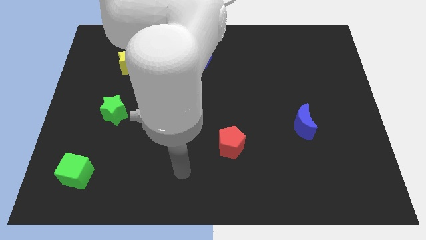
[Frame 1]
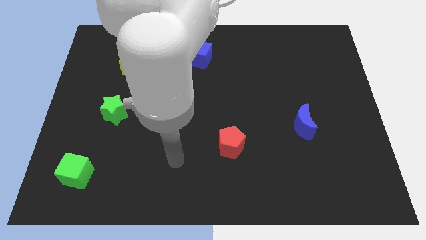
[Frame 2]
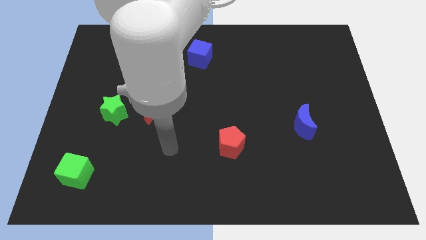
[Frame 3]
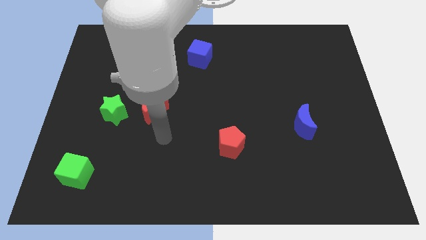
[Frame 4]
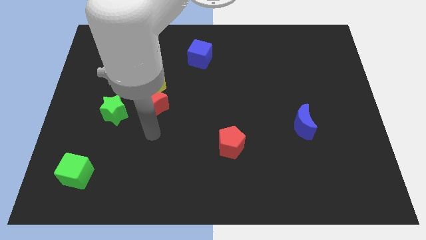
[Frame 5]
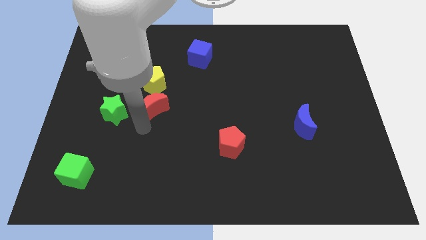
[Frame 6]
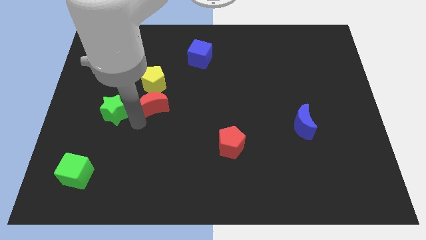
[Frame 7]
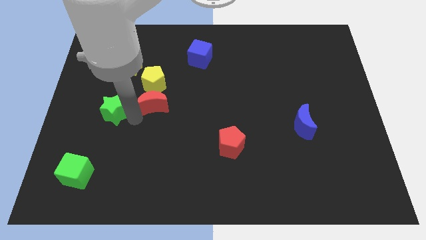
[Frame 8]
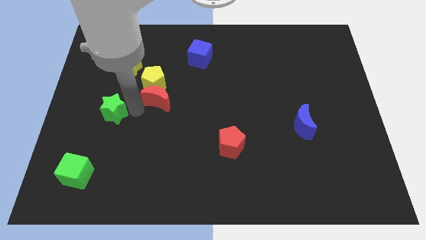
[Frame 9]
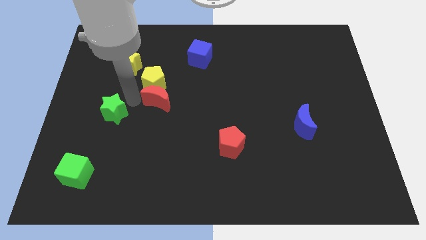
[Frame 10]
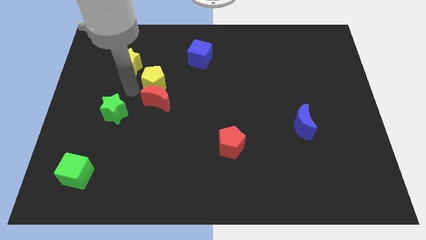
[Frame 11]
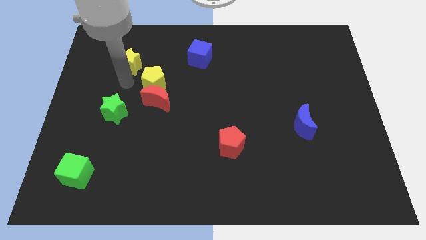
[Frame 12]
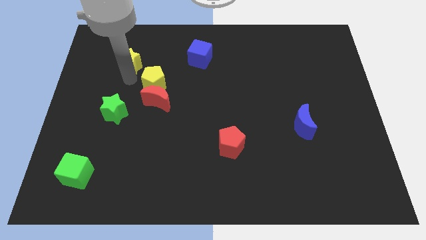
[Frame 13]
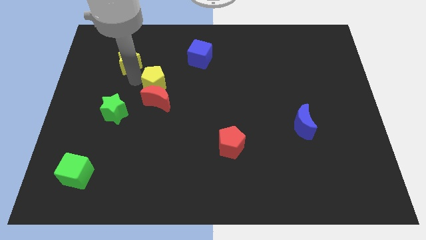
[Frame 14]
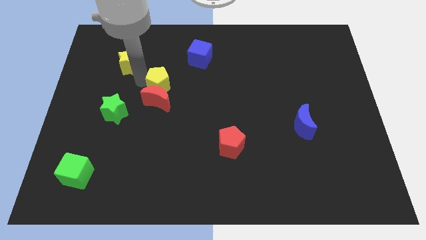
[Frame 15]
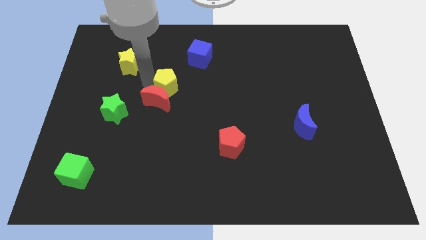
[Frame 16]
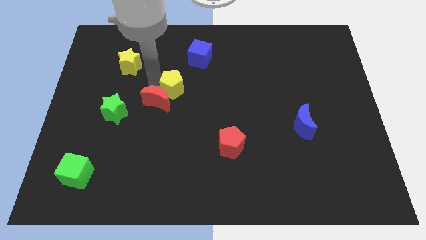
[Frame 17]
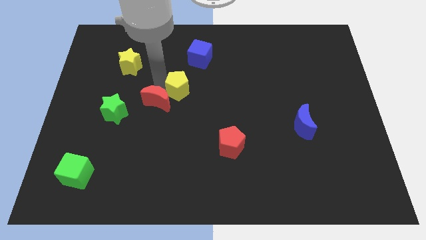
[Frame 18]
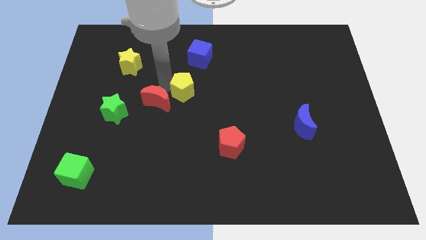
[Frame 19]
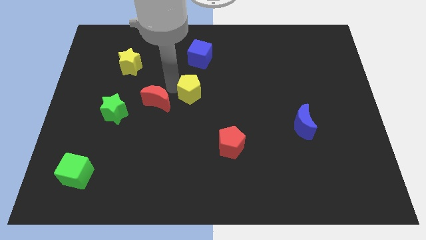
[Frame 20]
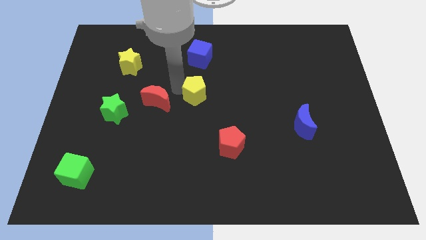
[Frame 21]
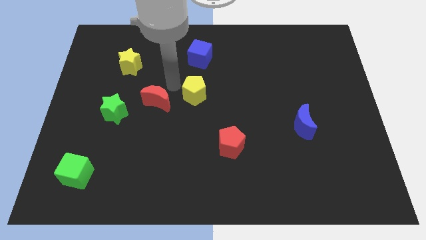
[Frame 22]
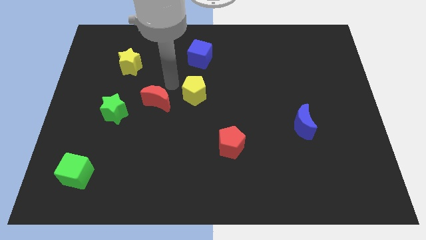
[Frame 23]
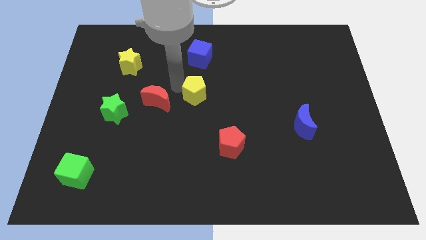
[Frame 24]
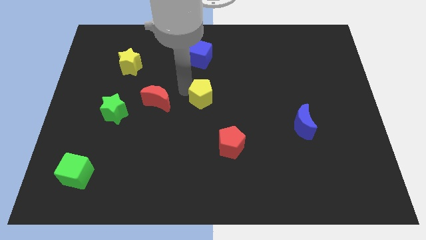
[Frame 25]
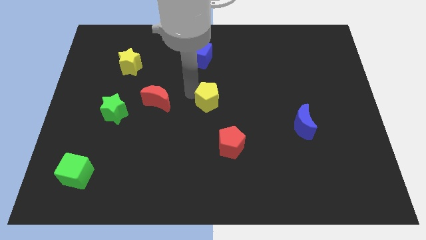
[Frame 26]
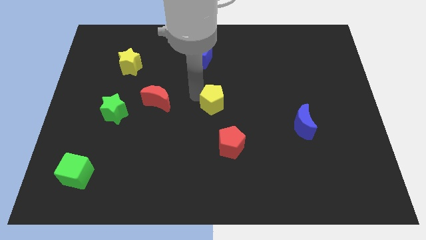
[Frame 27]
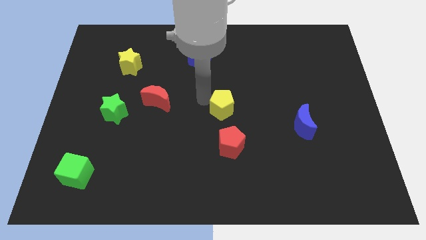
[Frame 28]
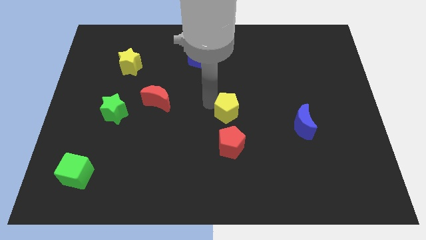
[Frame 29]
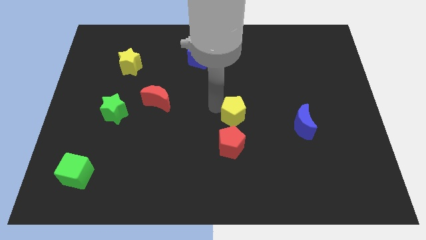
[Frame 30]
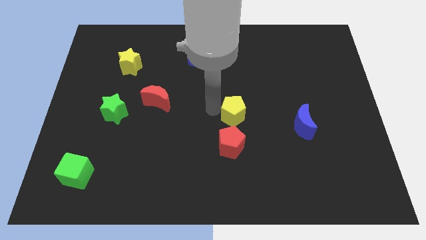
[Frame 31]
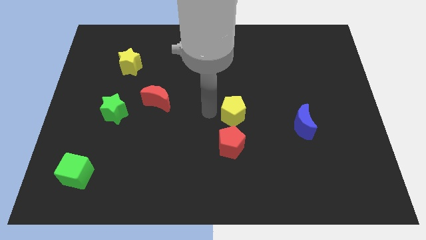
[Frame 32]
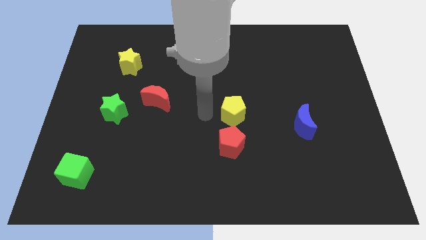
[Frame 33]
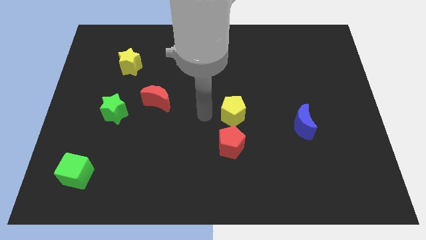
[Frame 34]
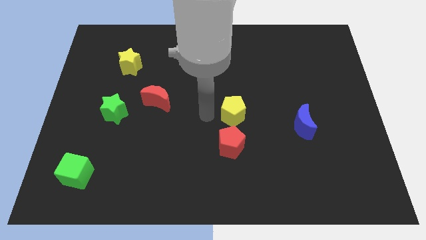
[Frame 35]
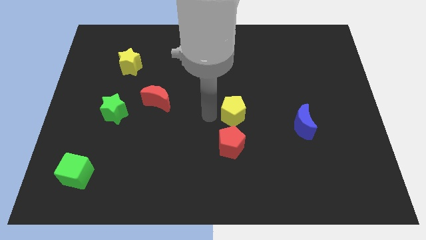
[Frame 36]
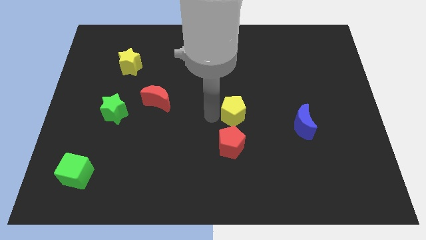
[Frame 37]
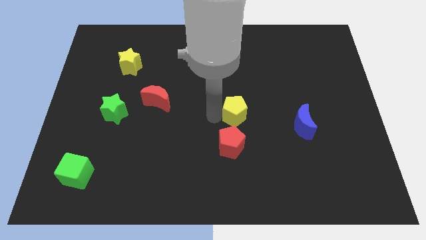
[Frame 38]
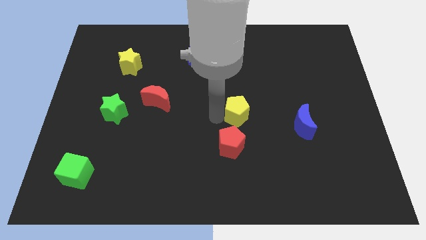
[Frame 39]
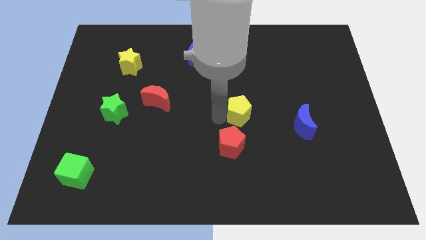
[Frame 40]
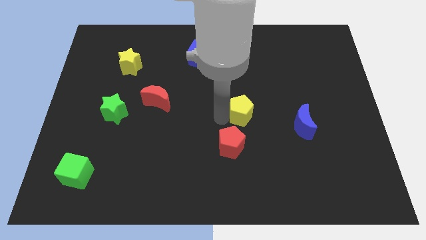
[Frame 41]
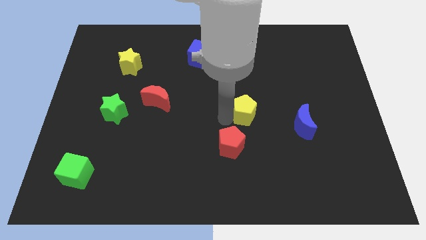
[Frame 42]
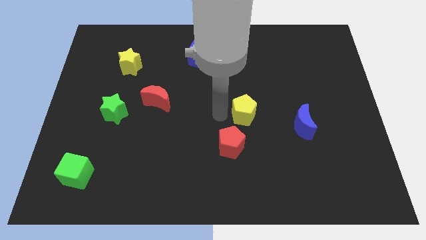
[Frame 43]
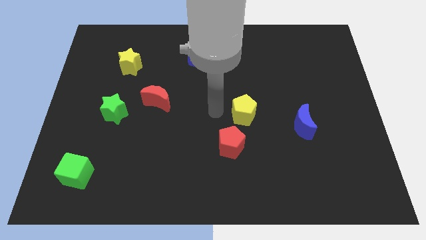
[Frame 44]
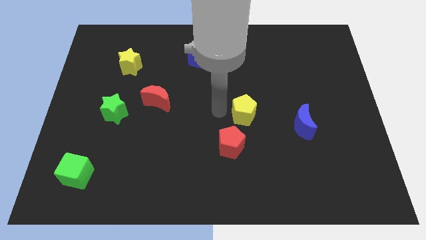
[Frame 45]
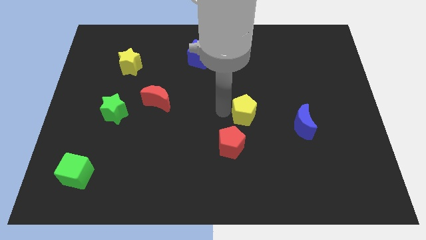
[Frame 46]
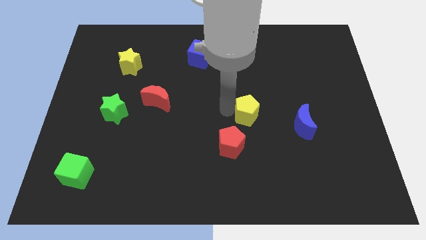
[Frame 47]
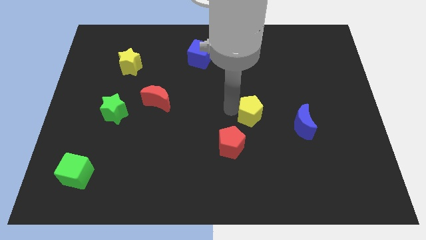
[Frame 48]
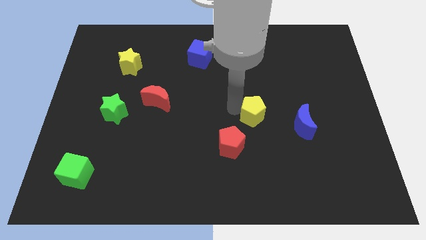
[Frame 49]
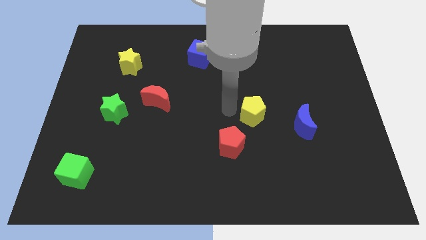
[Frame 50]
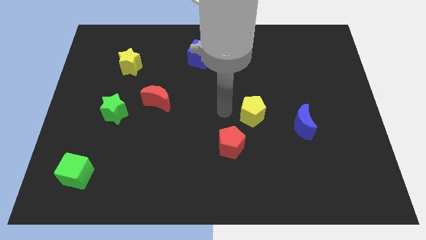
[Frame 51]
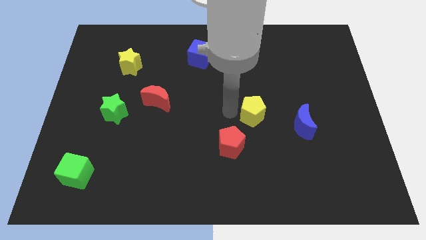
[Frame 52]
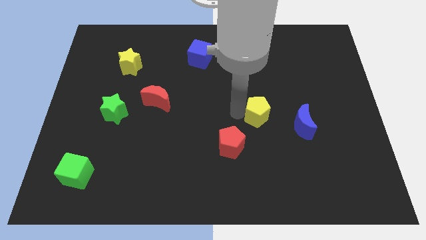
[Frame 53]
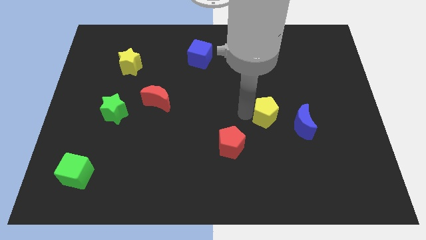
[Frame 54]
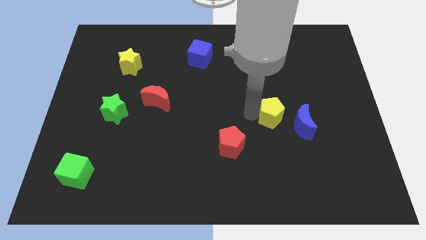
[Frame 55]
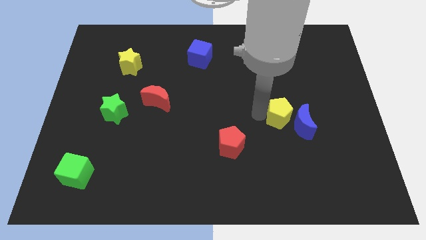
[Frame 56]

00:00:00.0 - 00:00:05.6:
slide the yellow pentagon towards the blue moon

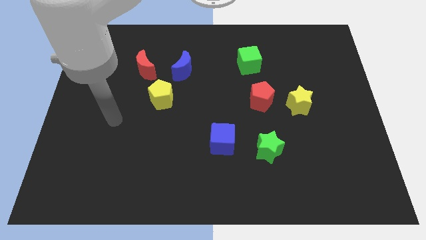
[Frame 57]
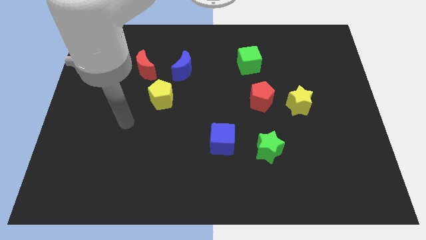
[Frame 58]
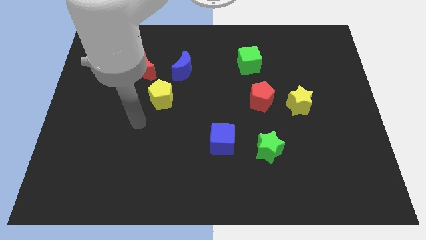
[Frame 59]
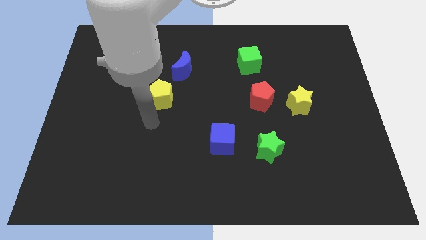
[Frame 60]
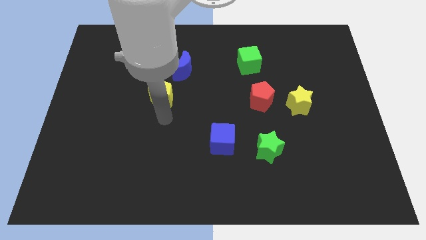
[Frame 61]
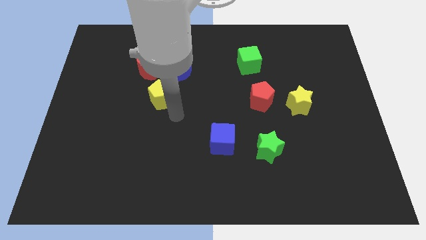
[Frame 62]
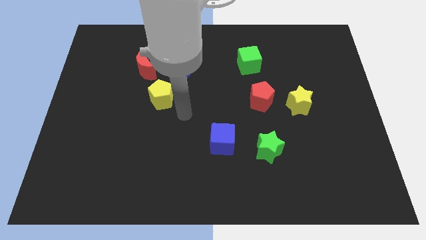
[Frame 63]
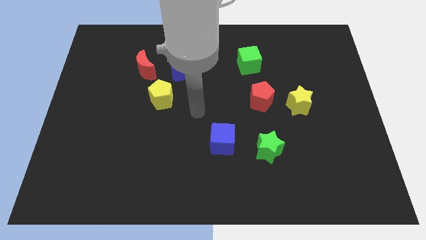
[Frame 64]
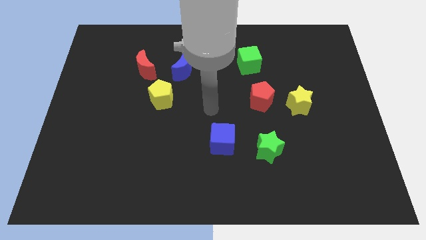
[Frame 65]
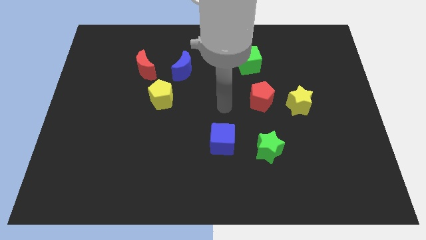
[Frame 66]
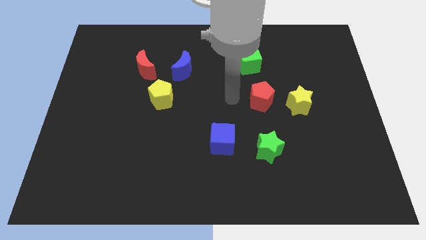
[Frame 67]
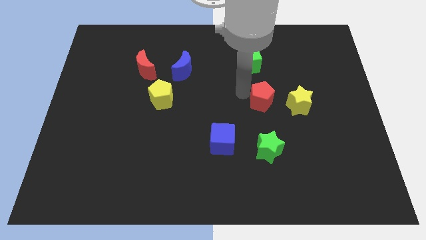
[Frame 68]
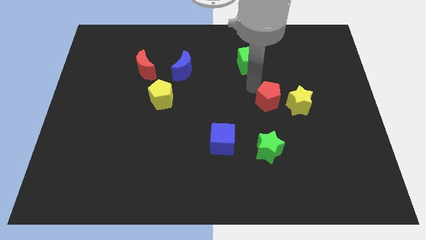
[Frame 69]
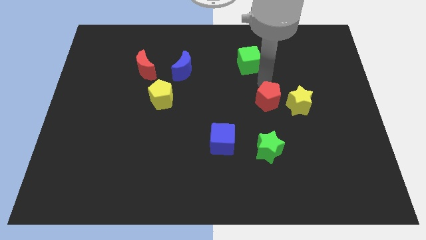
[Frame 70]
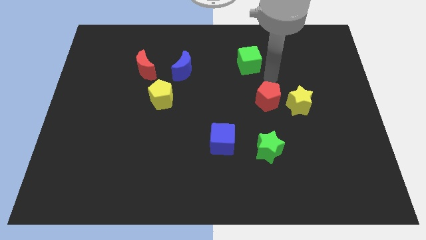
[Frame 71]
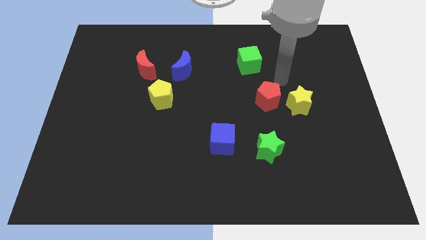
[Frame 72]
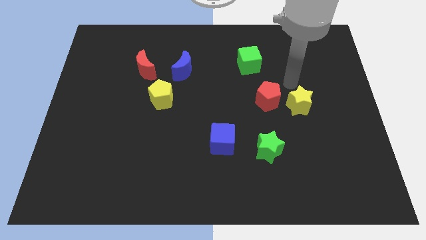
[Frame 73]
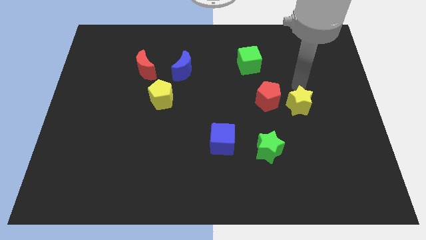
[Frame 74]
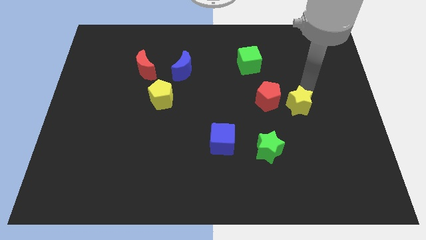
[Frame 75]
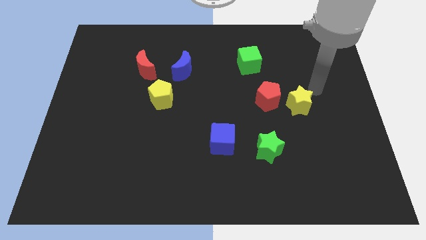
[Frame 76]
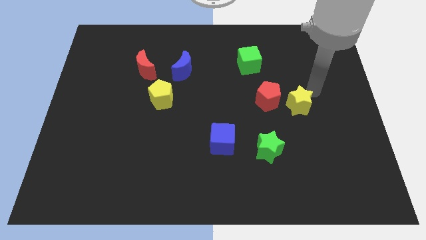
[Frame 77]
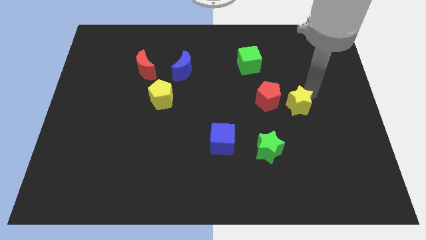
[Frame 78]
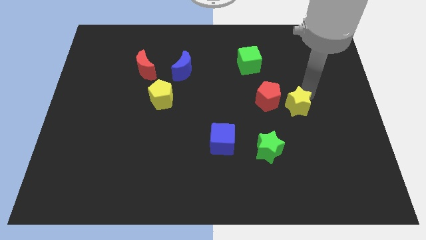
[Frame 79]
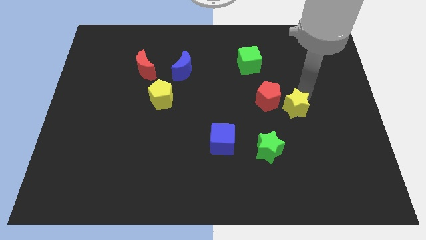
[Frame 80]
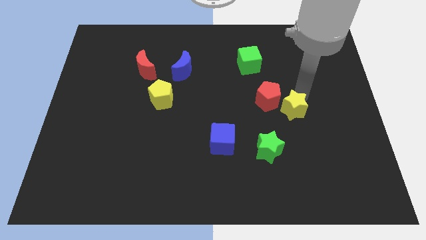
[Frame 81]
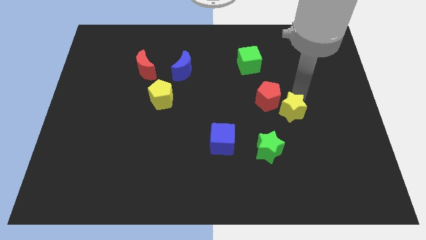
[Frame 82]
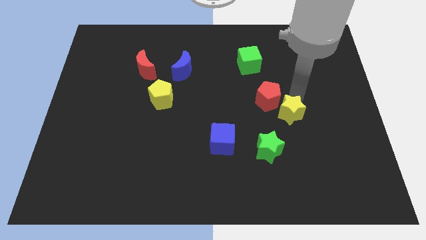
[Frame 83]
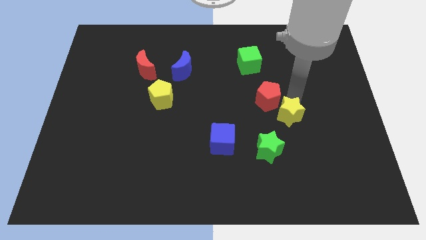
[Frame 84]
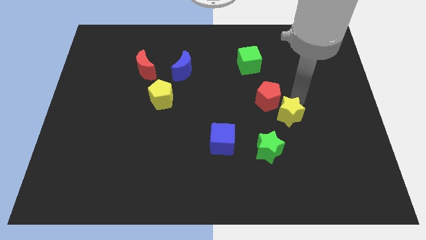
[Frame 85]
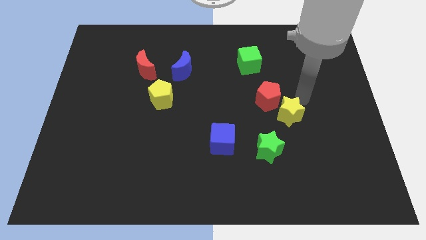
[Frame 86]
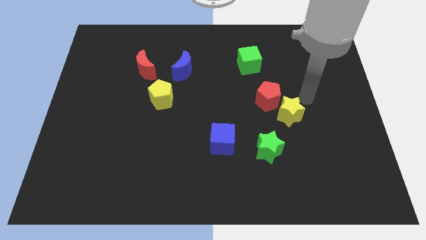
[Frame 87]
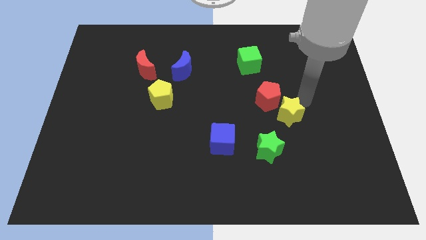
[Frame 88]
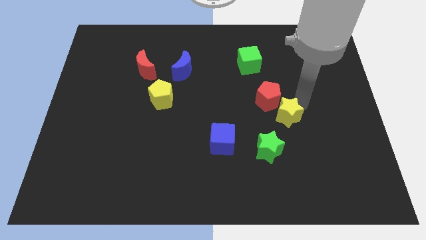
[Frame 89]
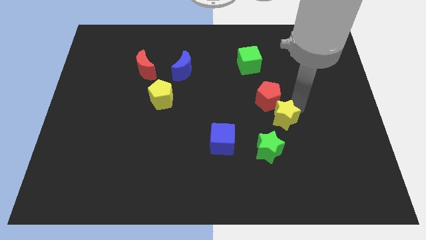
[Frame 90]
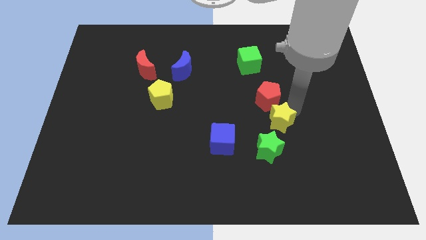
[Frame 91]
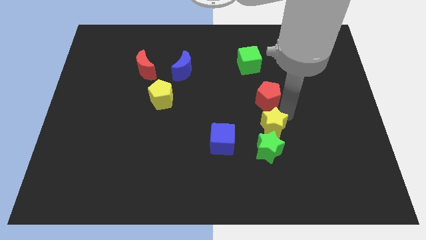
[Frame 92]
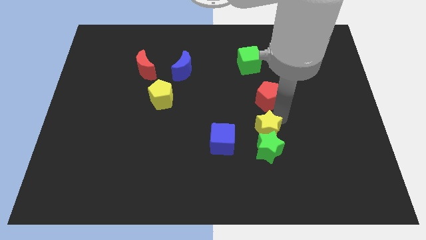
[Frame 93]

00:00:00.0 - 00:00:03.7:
slide the yellow star next to the green star
